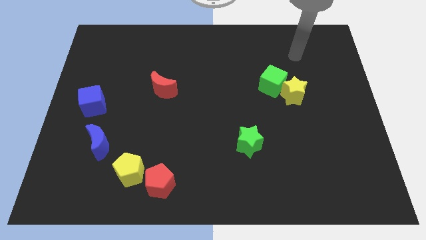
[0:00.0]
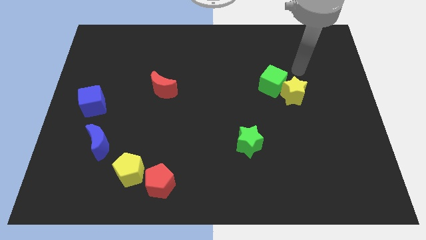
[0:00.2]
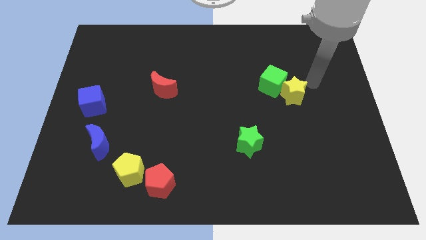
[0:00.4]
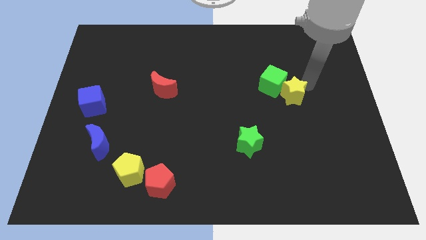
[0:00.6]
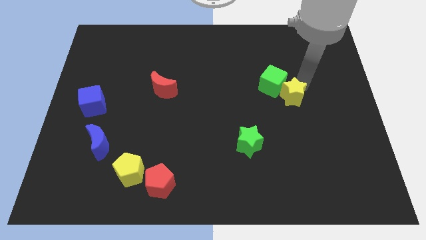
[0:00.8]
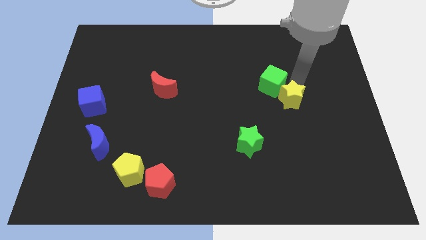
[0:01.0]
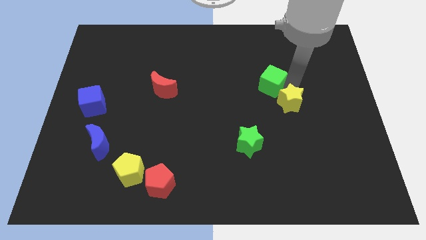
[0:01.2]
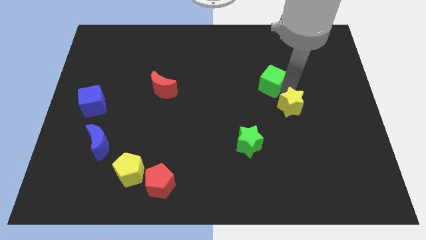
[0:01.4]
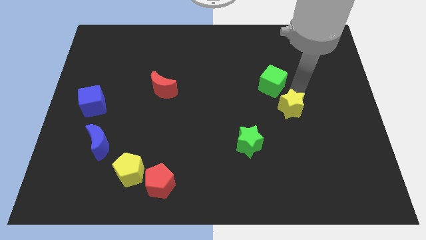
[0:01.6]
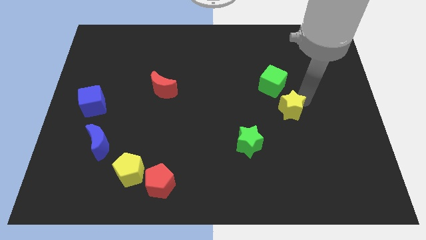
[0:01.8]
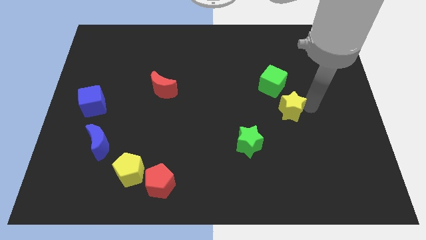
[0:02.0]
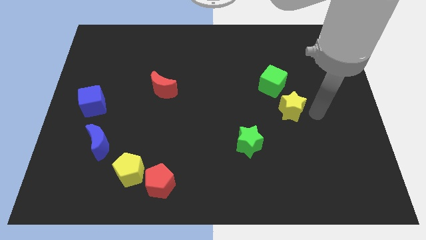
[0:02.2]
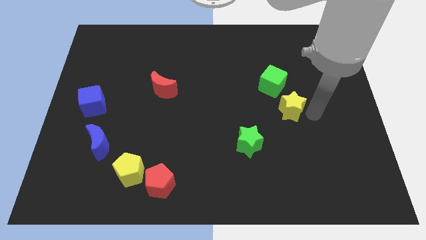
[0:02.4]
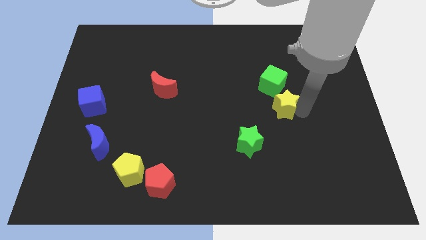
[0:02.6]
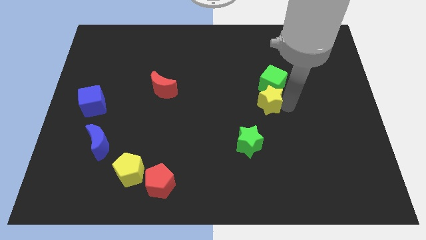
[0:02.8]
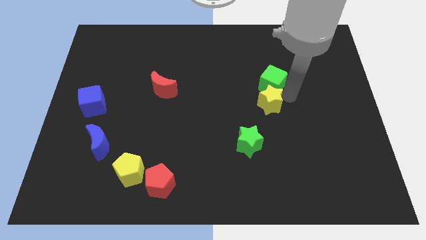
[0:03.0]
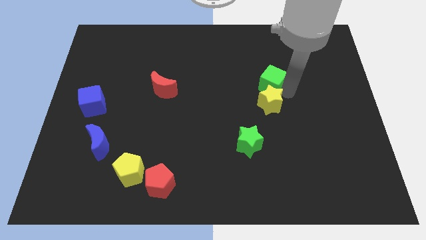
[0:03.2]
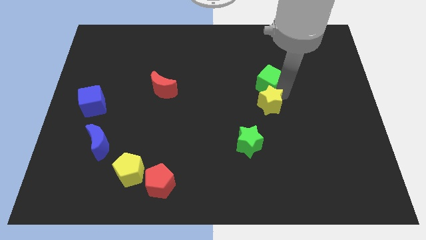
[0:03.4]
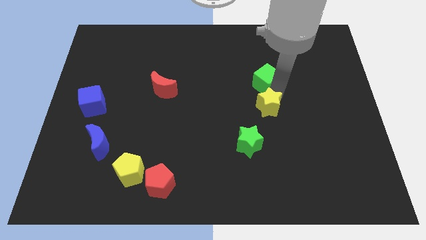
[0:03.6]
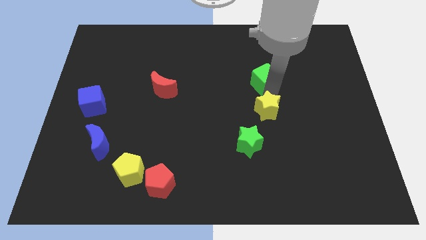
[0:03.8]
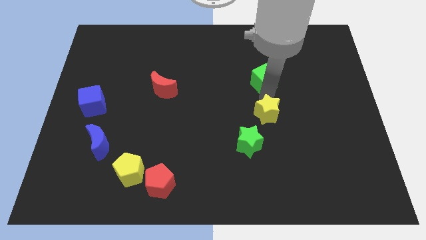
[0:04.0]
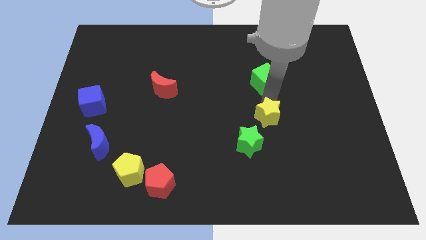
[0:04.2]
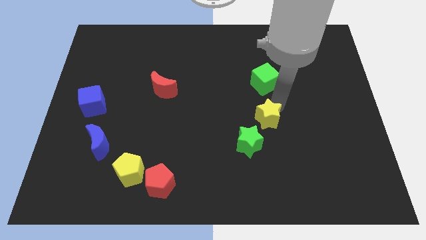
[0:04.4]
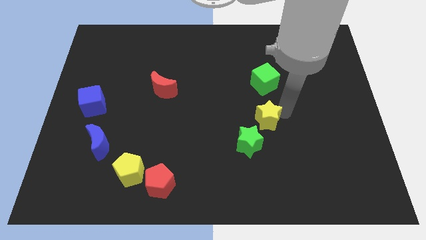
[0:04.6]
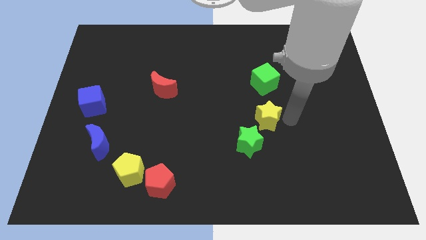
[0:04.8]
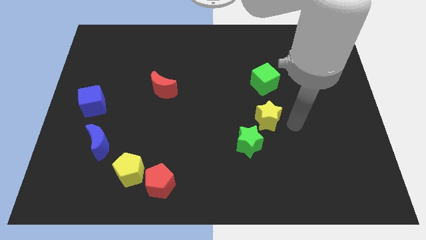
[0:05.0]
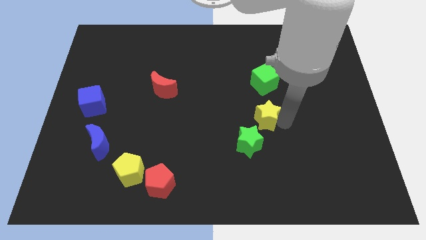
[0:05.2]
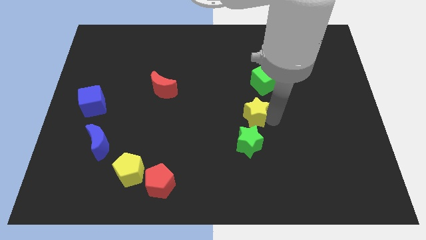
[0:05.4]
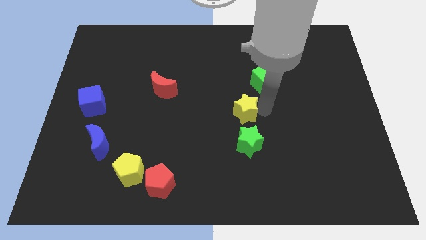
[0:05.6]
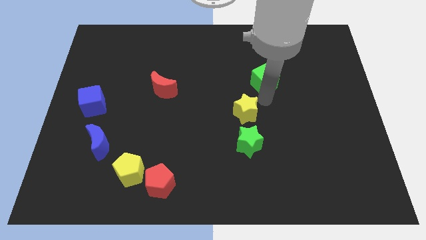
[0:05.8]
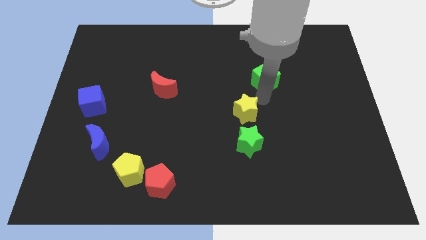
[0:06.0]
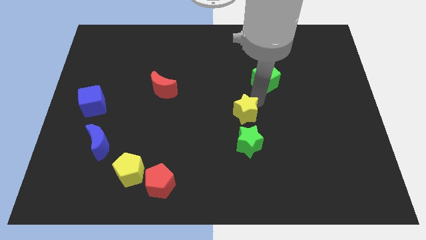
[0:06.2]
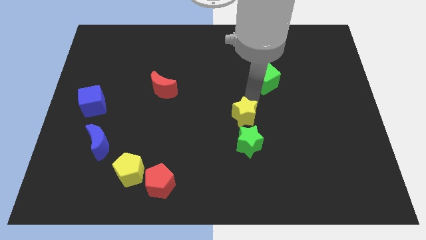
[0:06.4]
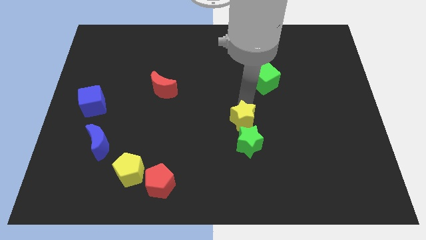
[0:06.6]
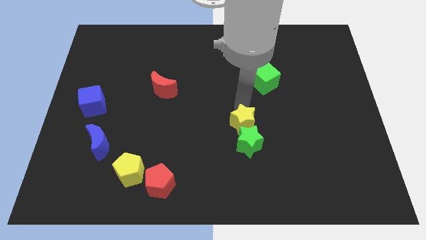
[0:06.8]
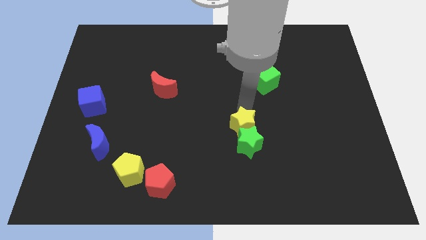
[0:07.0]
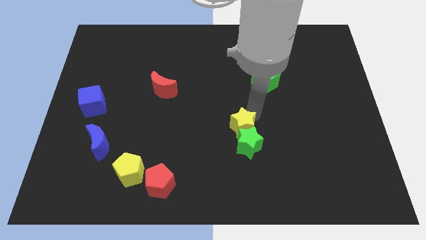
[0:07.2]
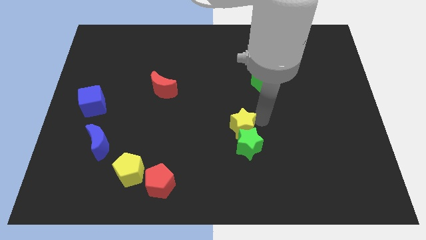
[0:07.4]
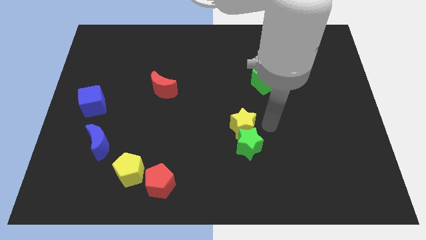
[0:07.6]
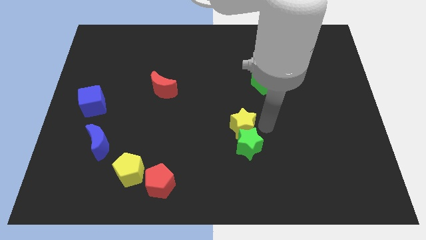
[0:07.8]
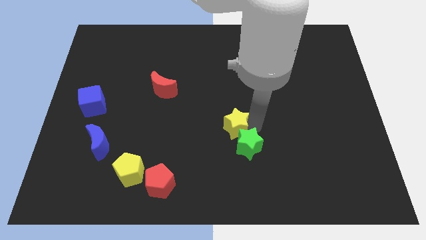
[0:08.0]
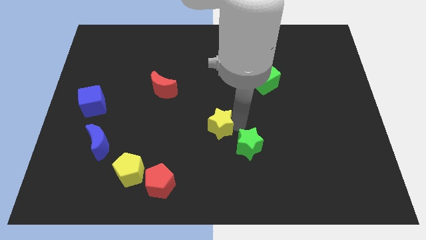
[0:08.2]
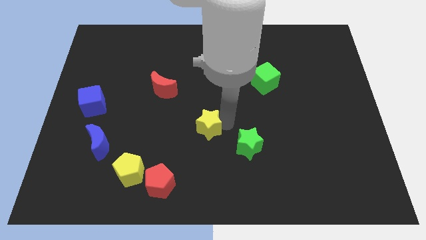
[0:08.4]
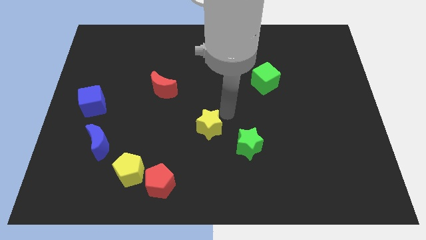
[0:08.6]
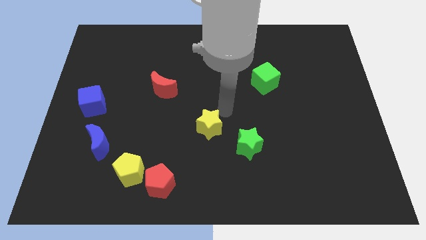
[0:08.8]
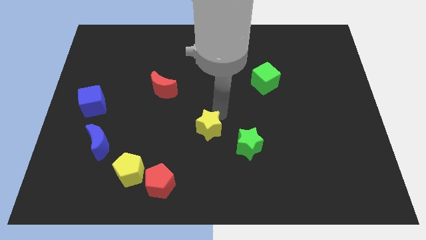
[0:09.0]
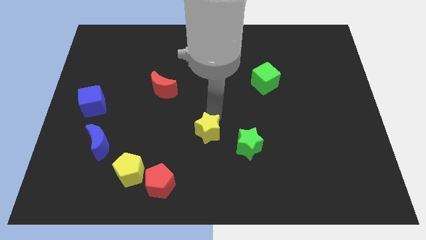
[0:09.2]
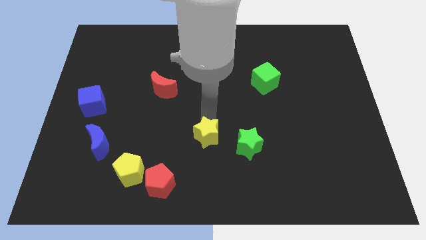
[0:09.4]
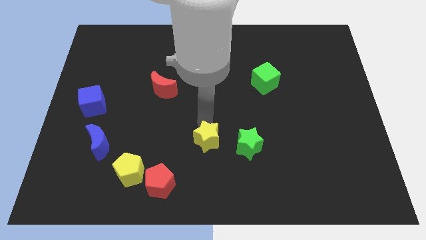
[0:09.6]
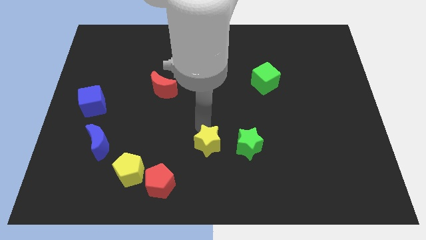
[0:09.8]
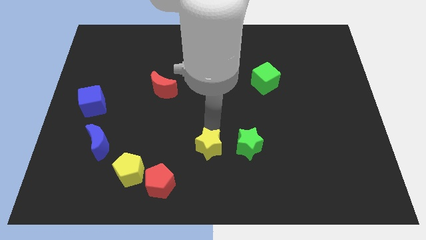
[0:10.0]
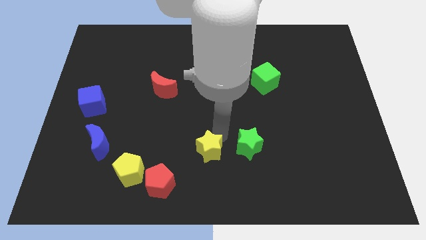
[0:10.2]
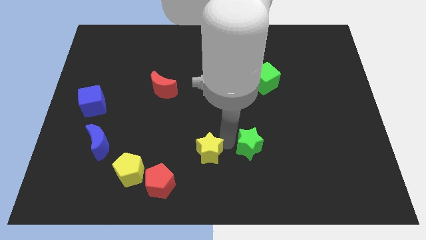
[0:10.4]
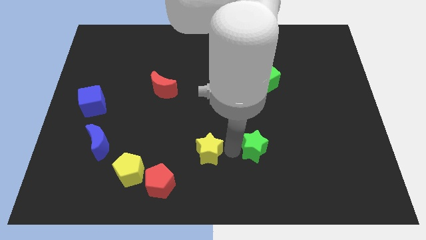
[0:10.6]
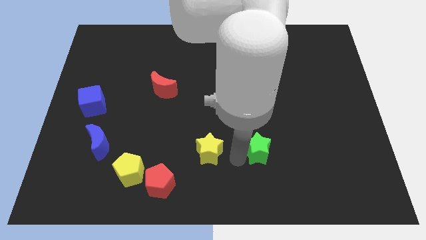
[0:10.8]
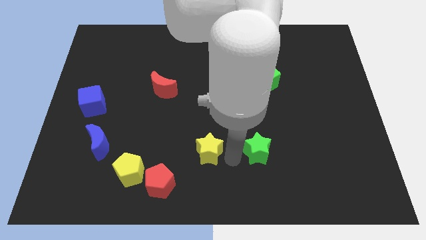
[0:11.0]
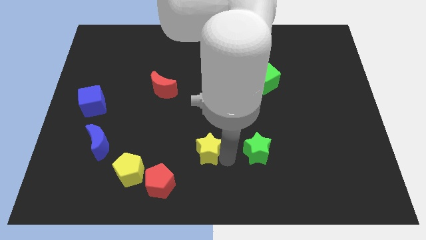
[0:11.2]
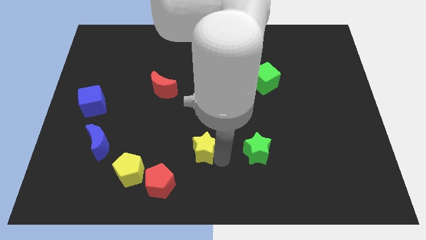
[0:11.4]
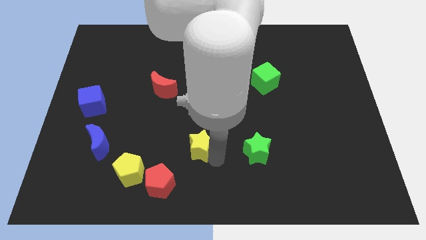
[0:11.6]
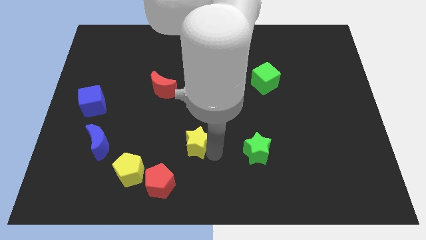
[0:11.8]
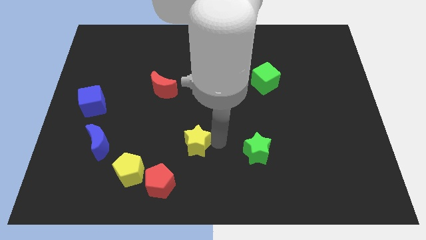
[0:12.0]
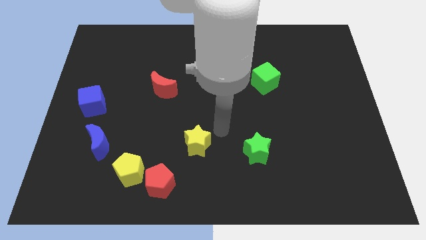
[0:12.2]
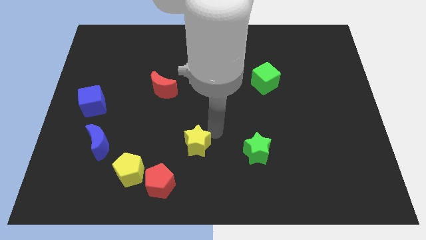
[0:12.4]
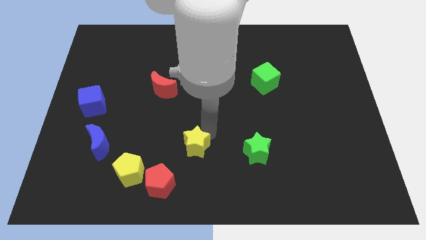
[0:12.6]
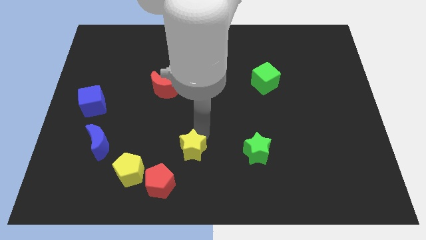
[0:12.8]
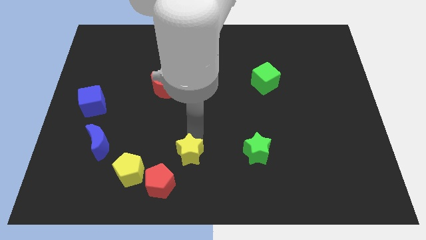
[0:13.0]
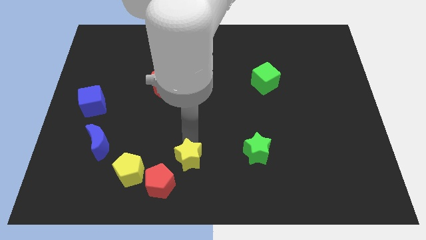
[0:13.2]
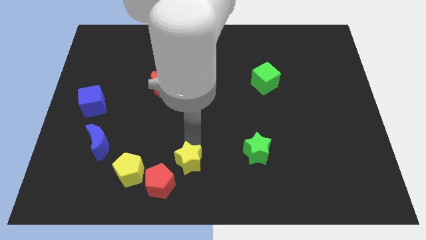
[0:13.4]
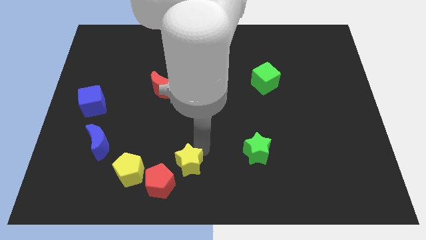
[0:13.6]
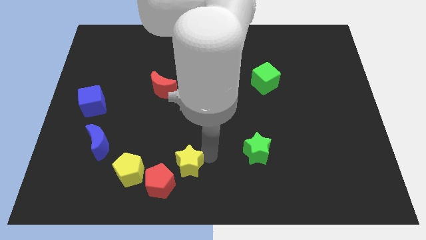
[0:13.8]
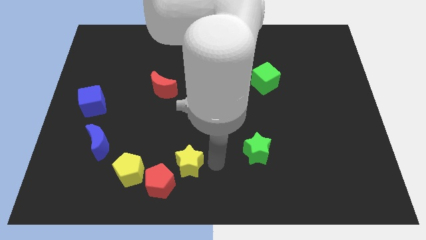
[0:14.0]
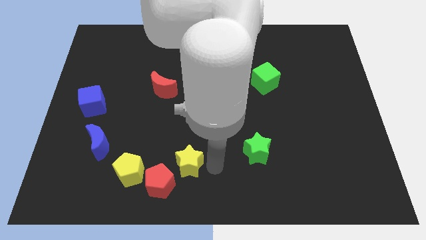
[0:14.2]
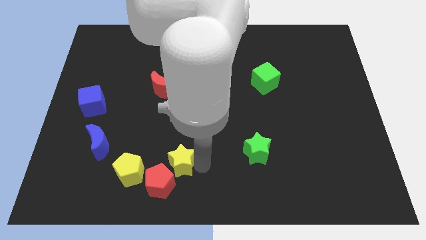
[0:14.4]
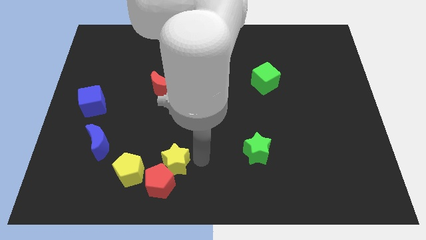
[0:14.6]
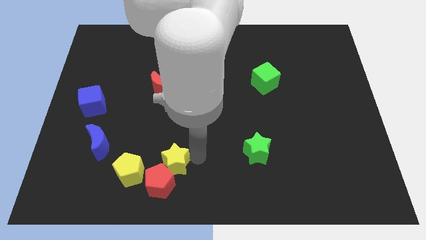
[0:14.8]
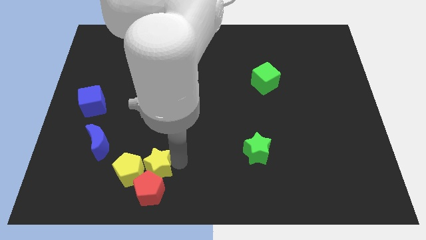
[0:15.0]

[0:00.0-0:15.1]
move the yellow star next to the yellow pentagon
